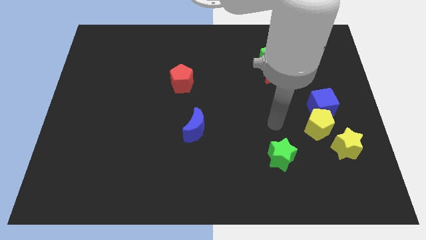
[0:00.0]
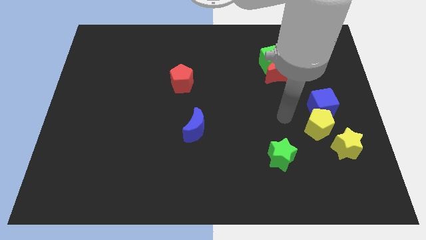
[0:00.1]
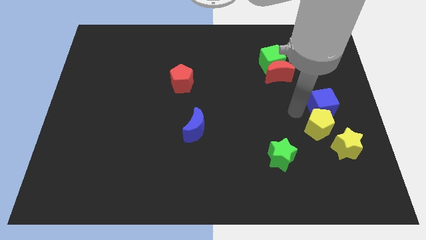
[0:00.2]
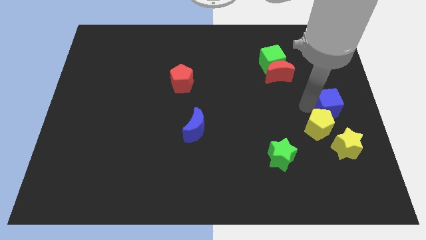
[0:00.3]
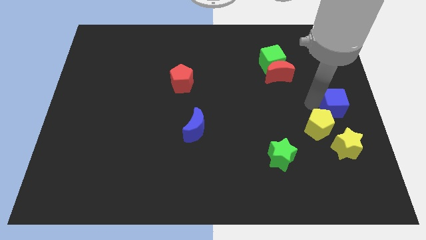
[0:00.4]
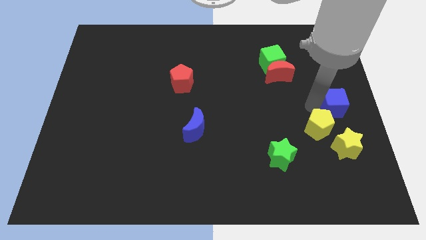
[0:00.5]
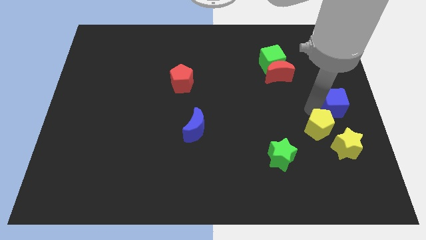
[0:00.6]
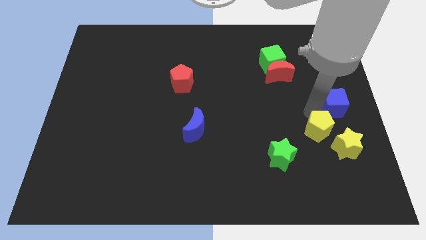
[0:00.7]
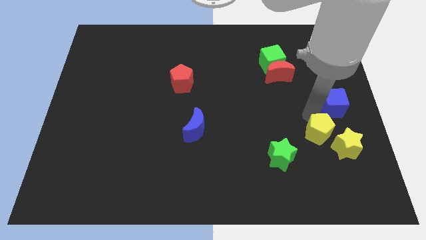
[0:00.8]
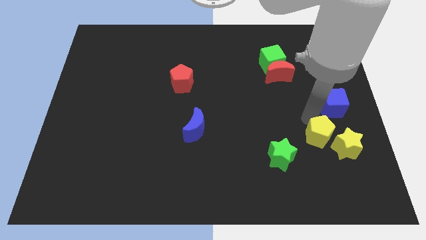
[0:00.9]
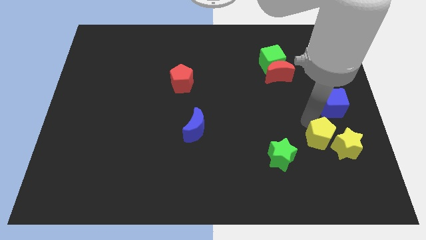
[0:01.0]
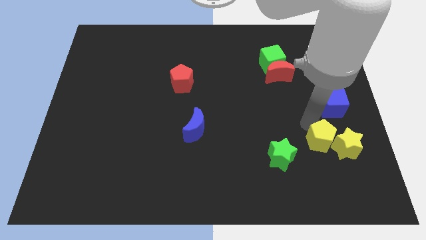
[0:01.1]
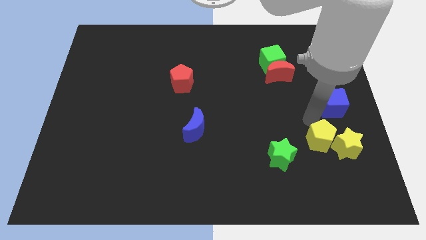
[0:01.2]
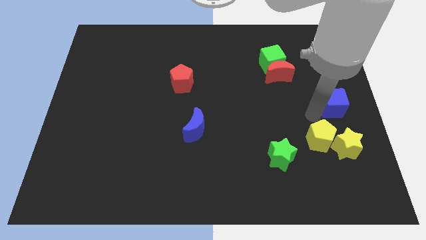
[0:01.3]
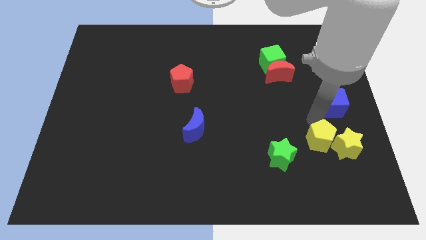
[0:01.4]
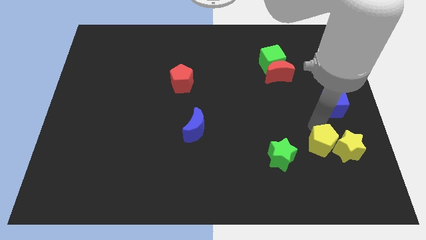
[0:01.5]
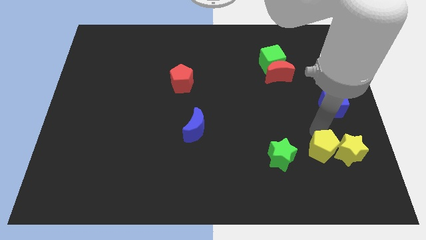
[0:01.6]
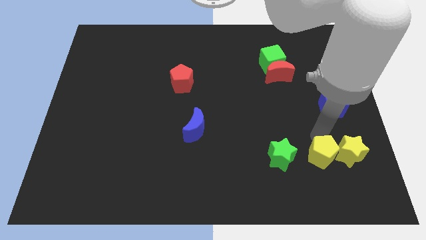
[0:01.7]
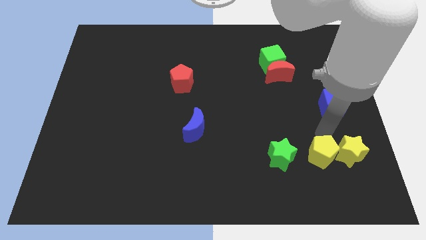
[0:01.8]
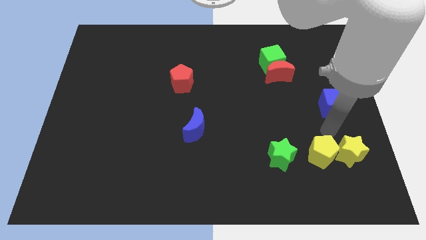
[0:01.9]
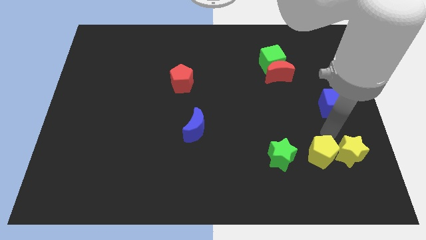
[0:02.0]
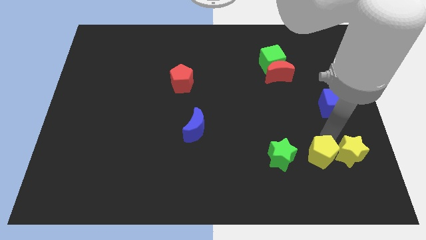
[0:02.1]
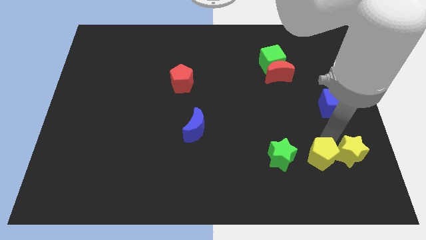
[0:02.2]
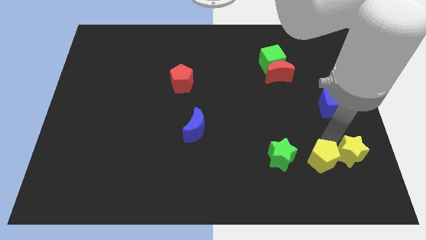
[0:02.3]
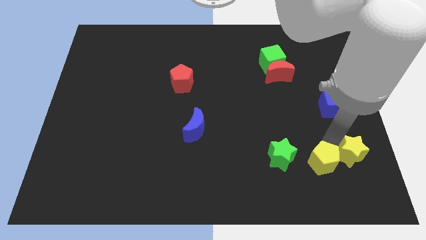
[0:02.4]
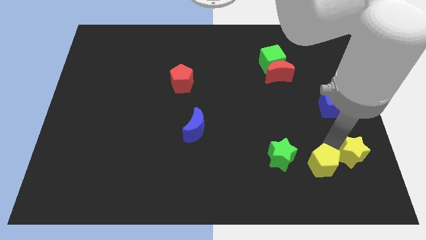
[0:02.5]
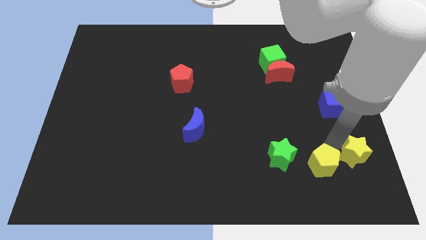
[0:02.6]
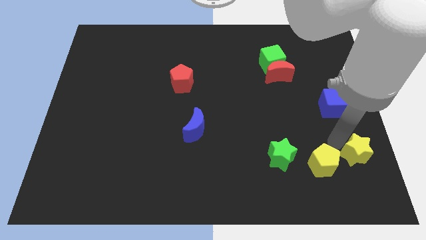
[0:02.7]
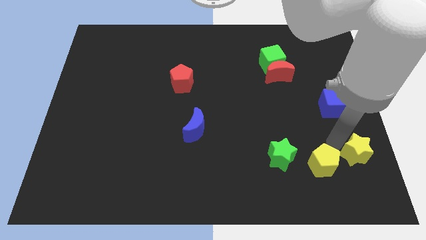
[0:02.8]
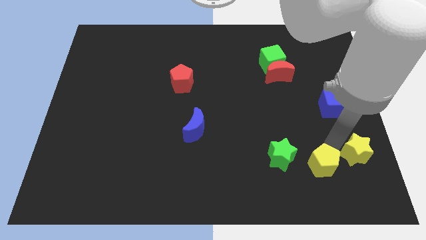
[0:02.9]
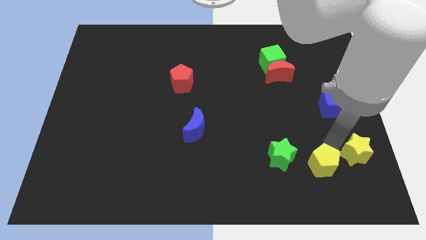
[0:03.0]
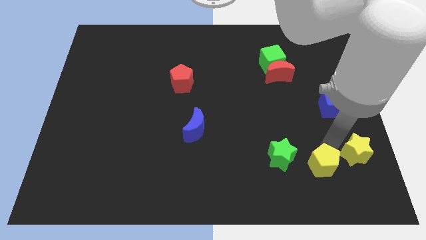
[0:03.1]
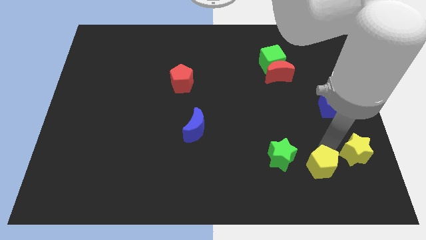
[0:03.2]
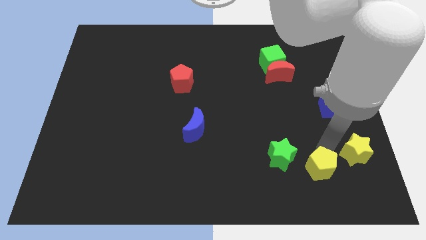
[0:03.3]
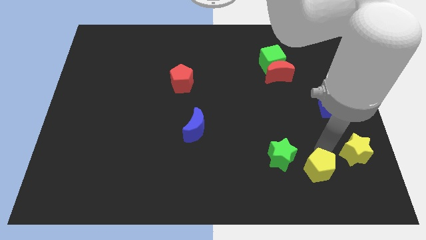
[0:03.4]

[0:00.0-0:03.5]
push the yellow pentagon a little bit downwards and to the left

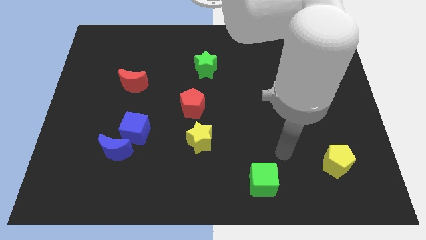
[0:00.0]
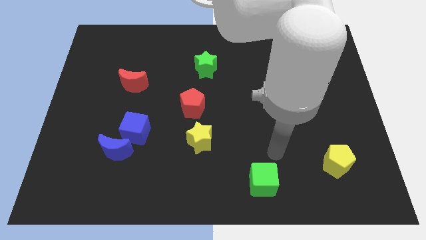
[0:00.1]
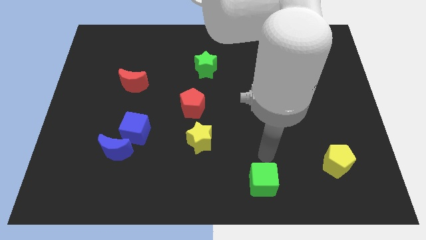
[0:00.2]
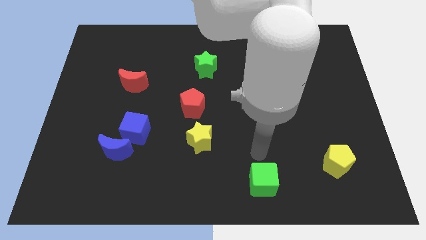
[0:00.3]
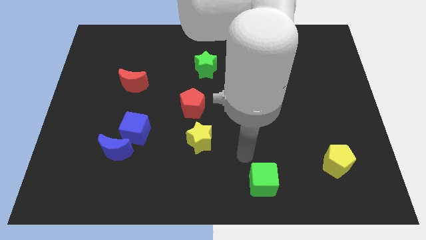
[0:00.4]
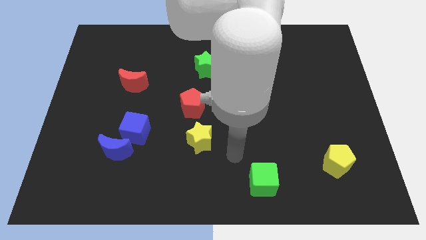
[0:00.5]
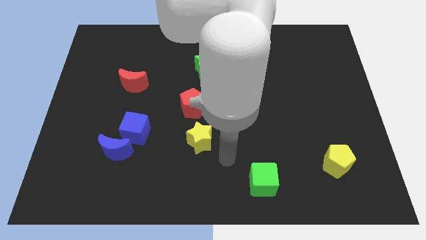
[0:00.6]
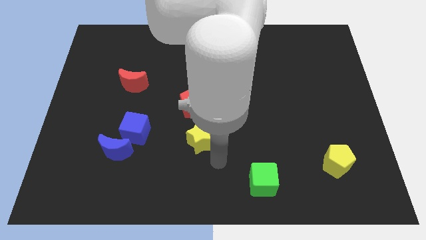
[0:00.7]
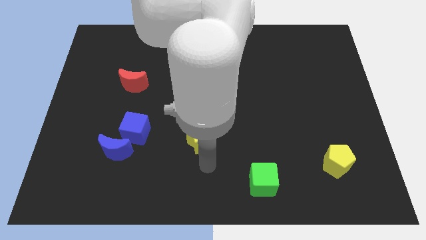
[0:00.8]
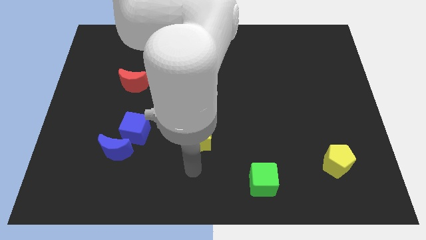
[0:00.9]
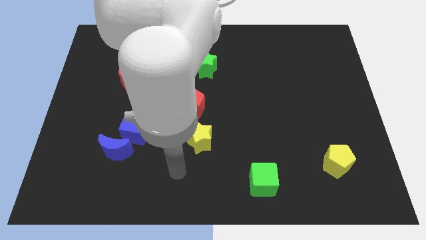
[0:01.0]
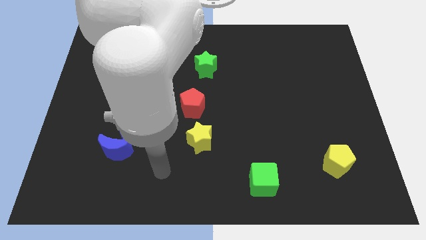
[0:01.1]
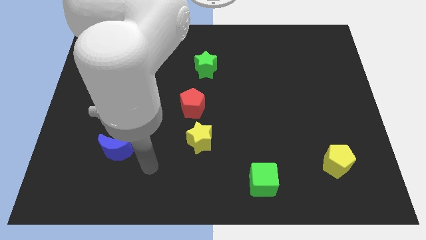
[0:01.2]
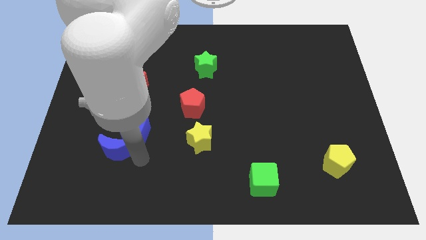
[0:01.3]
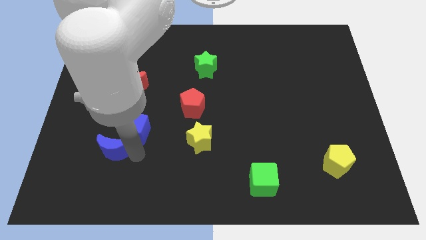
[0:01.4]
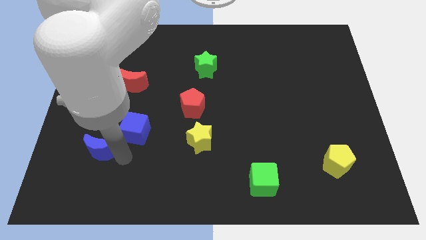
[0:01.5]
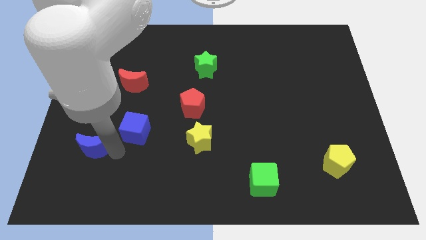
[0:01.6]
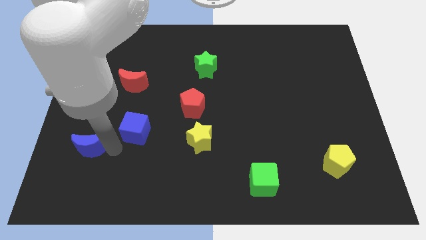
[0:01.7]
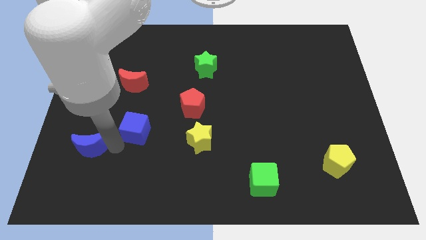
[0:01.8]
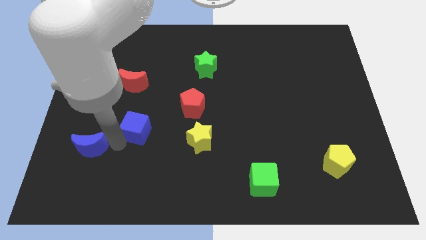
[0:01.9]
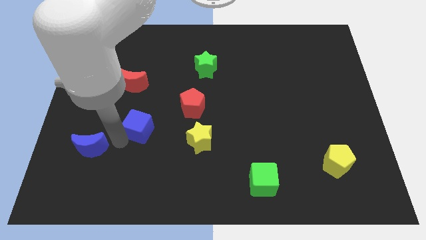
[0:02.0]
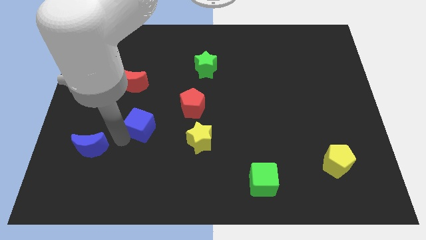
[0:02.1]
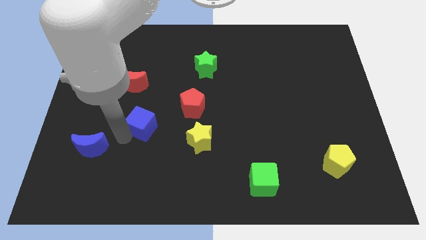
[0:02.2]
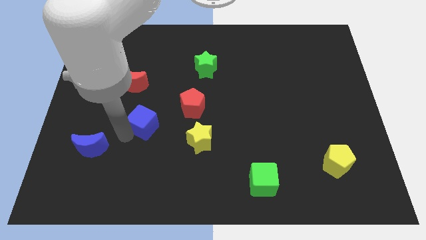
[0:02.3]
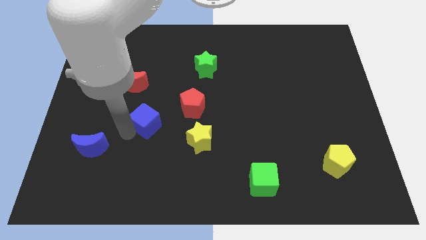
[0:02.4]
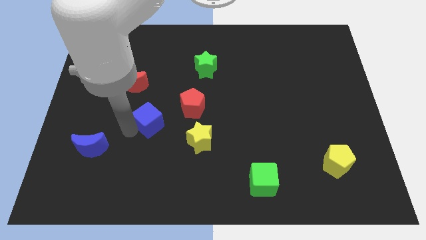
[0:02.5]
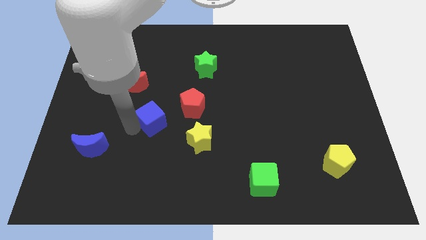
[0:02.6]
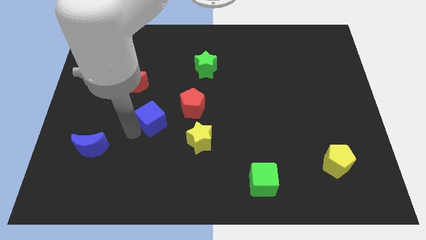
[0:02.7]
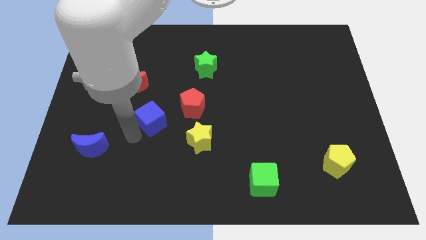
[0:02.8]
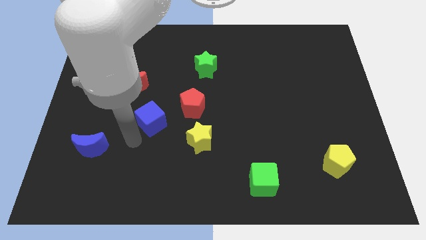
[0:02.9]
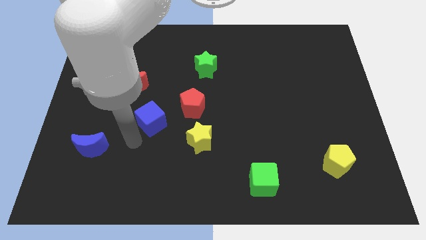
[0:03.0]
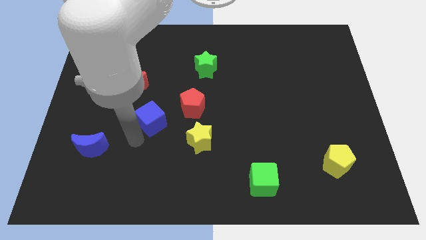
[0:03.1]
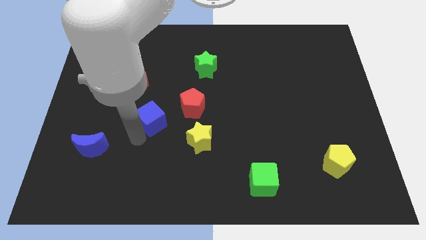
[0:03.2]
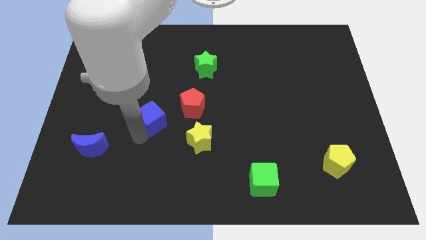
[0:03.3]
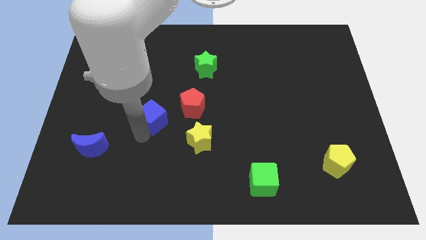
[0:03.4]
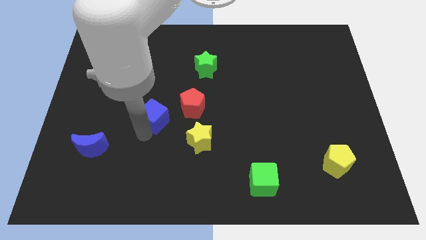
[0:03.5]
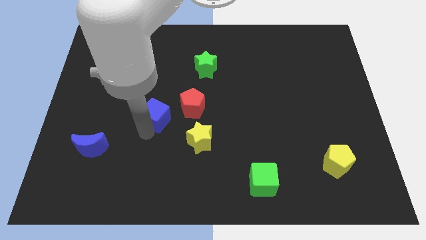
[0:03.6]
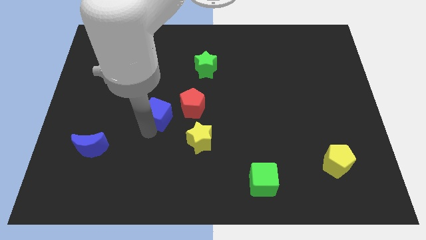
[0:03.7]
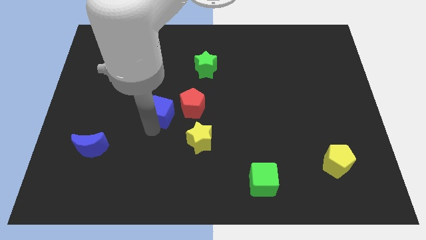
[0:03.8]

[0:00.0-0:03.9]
slightly slide the blue cube up and to the right

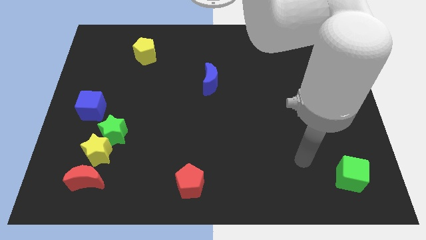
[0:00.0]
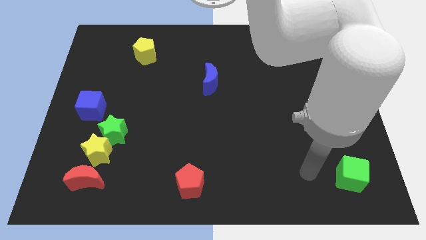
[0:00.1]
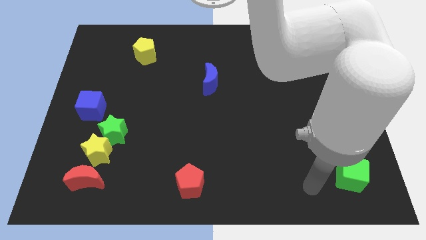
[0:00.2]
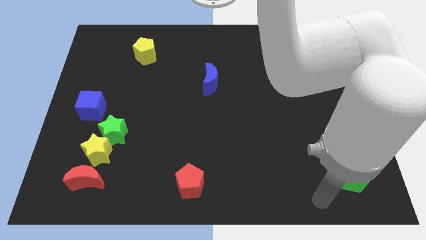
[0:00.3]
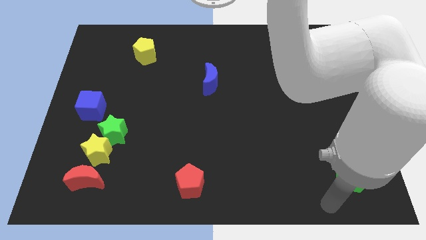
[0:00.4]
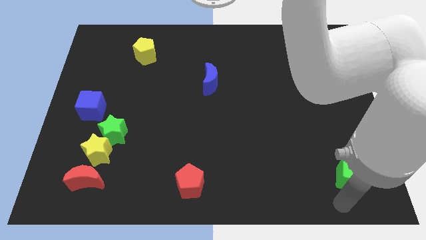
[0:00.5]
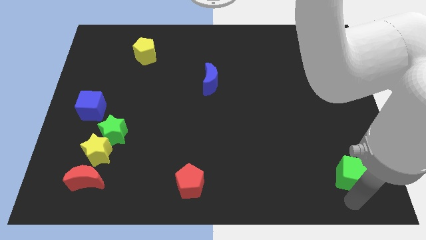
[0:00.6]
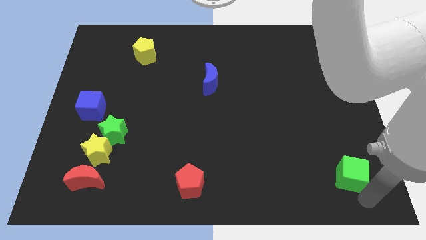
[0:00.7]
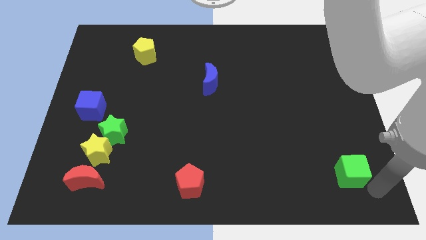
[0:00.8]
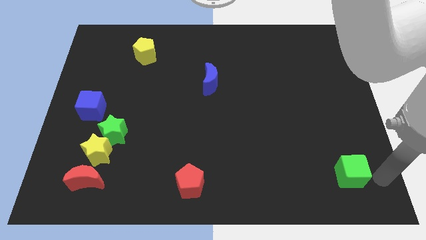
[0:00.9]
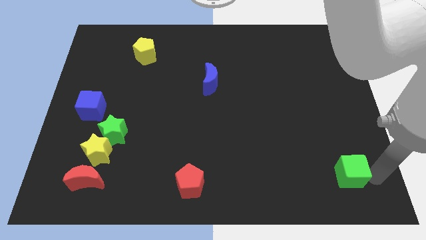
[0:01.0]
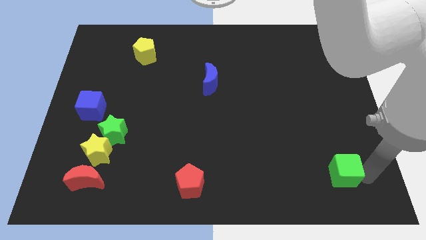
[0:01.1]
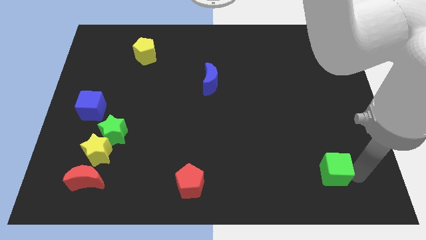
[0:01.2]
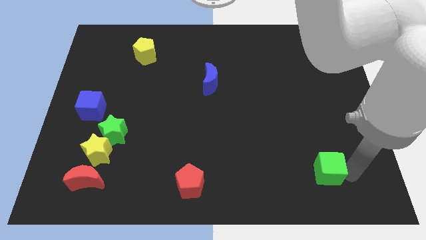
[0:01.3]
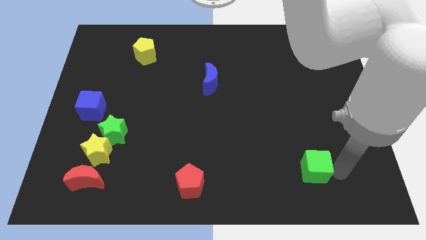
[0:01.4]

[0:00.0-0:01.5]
slightly move the green cube to the left
